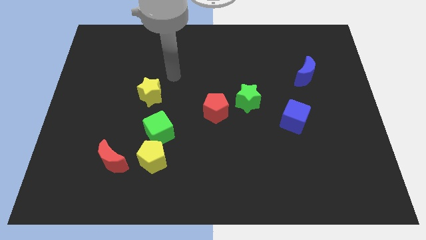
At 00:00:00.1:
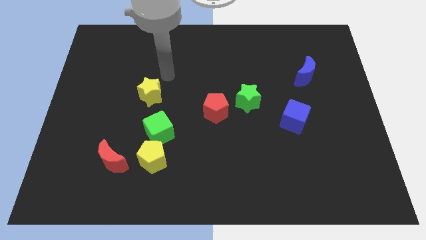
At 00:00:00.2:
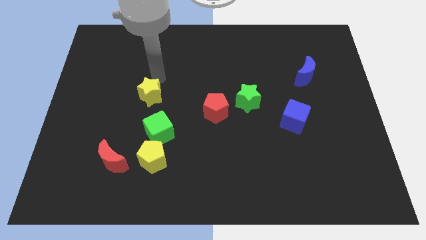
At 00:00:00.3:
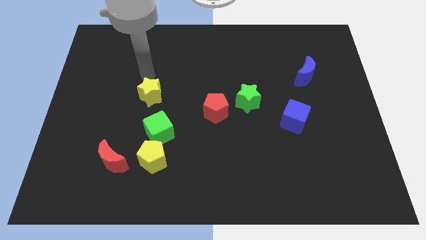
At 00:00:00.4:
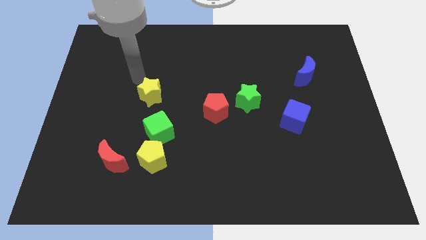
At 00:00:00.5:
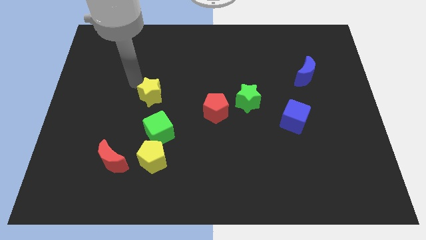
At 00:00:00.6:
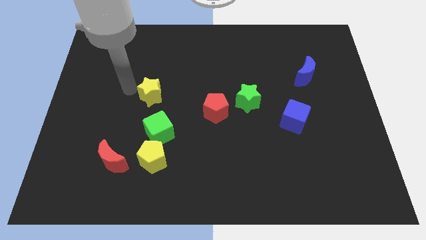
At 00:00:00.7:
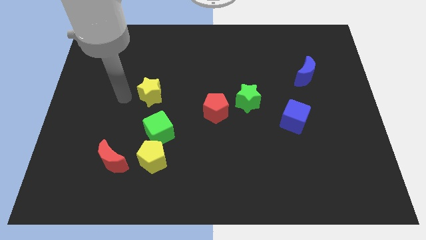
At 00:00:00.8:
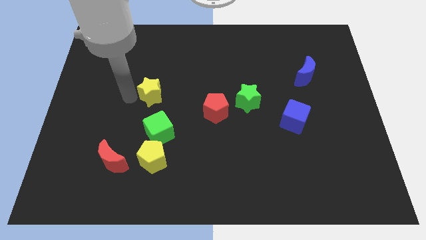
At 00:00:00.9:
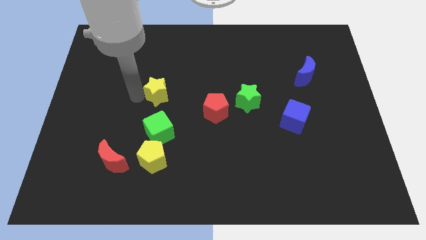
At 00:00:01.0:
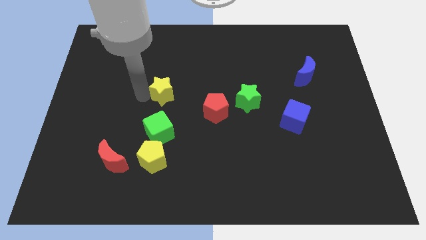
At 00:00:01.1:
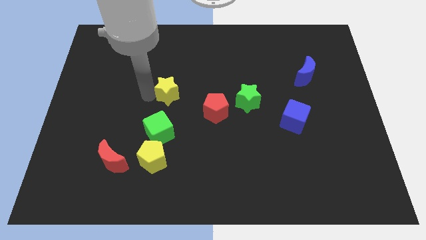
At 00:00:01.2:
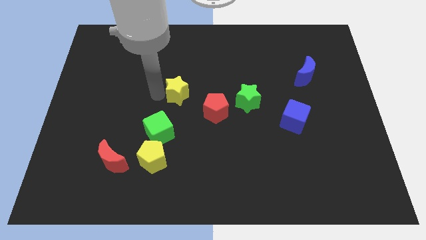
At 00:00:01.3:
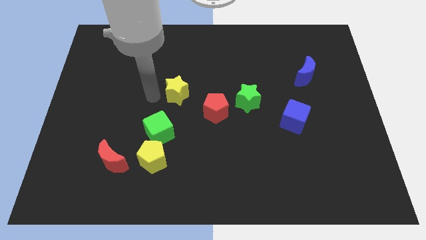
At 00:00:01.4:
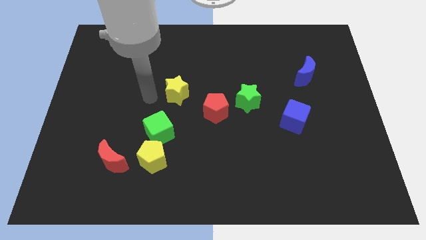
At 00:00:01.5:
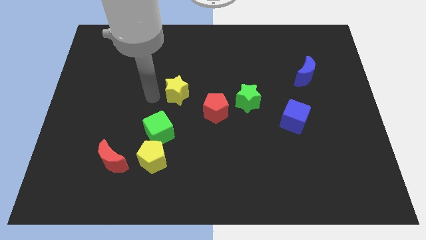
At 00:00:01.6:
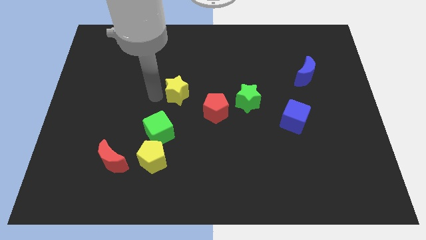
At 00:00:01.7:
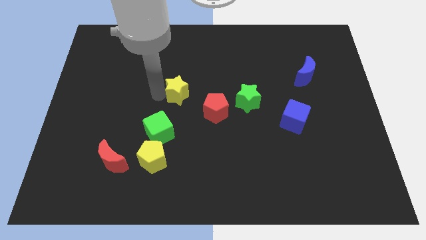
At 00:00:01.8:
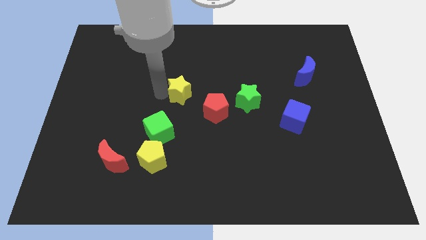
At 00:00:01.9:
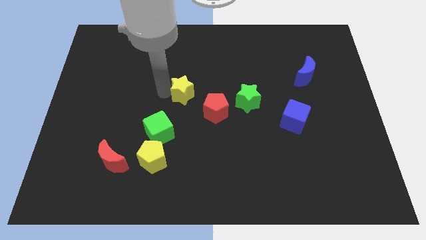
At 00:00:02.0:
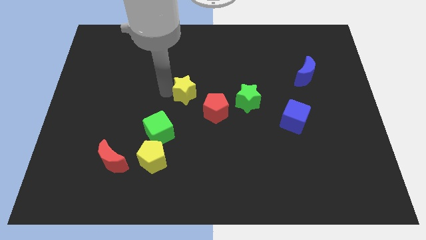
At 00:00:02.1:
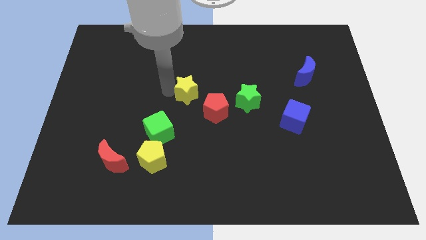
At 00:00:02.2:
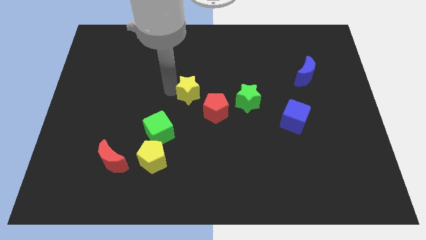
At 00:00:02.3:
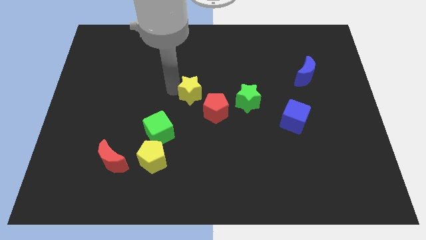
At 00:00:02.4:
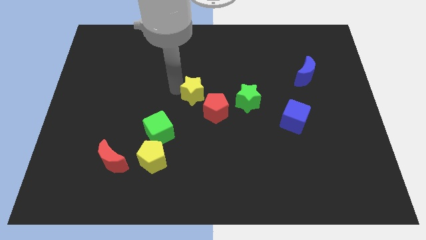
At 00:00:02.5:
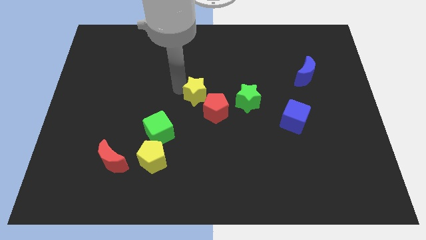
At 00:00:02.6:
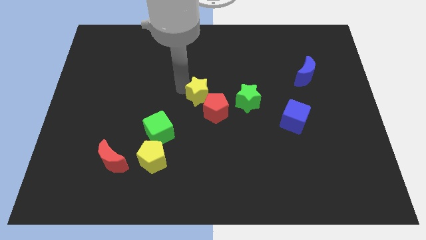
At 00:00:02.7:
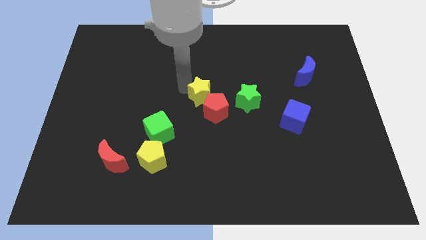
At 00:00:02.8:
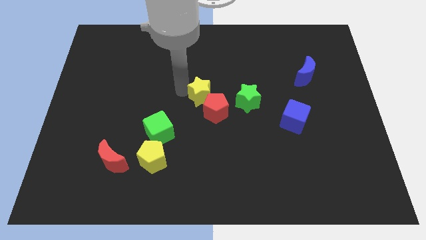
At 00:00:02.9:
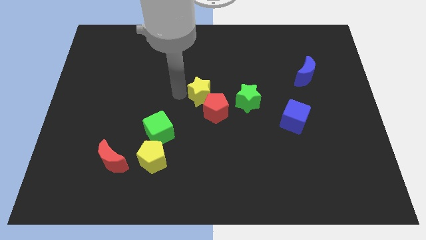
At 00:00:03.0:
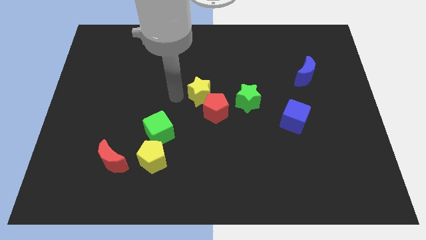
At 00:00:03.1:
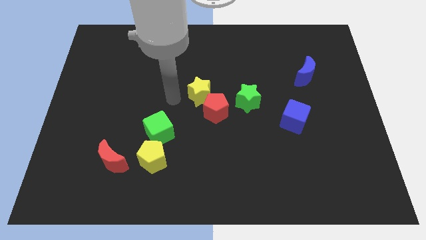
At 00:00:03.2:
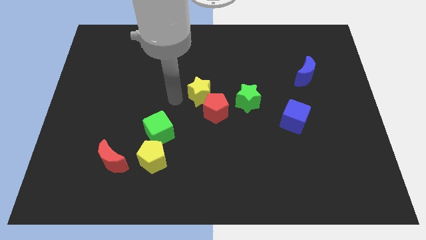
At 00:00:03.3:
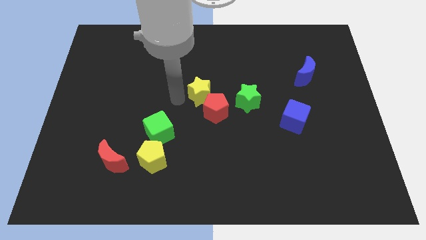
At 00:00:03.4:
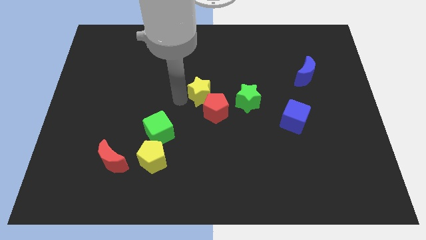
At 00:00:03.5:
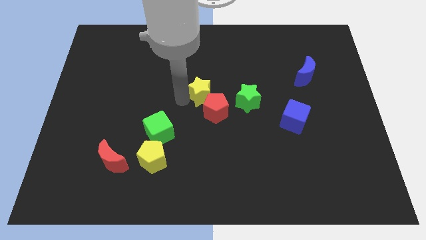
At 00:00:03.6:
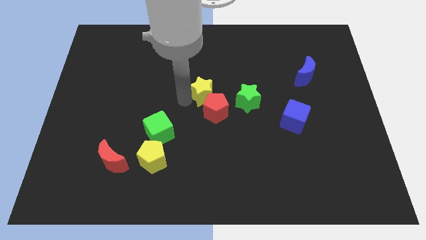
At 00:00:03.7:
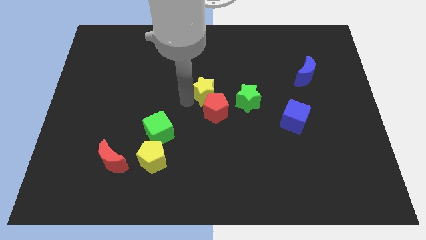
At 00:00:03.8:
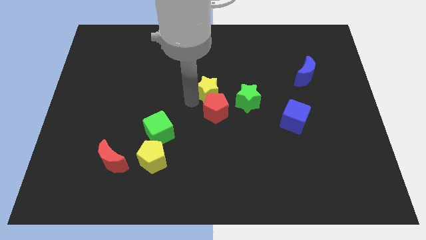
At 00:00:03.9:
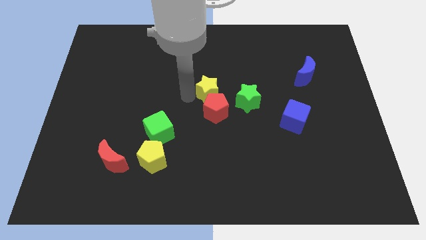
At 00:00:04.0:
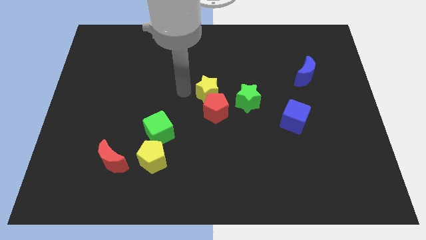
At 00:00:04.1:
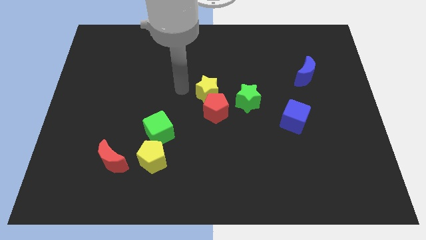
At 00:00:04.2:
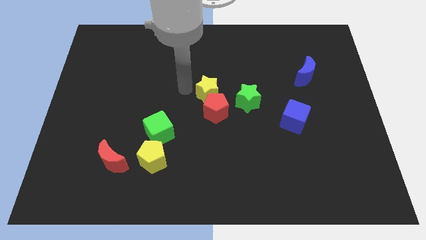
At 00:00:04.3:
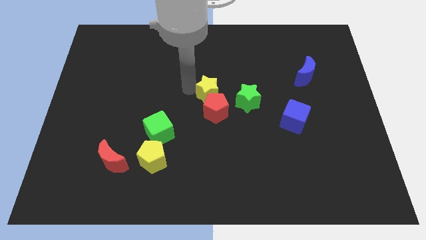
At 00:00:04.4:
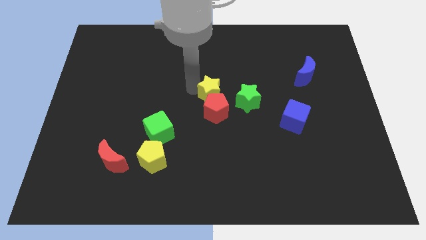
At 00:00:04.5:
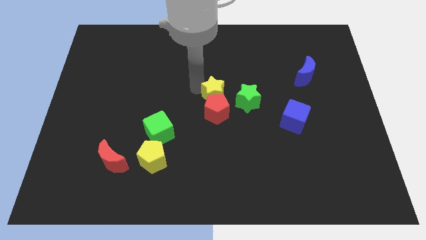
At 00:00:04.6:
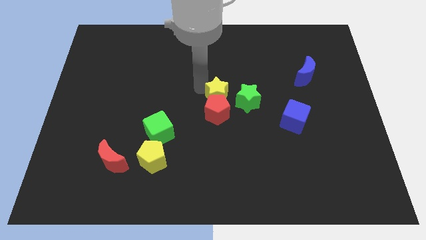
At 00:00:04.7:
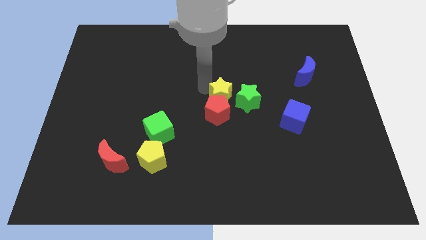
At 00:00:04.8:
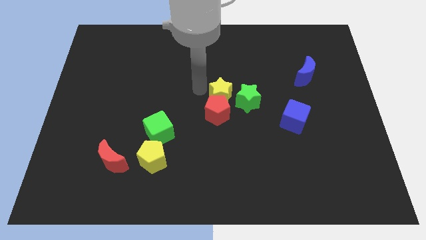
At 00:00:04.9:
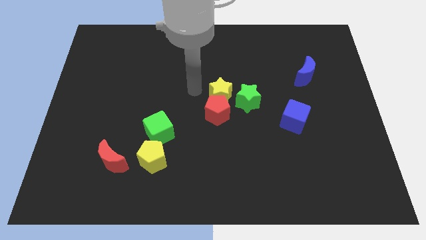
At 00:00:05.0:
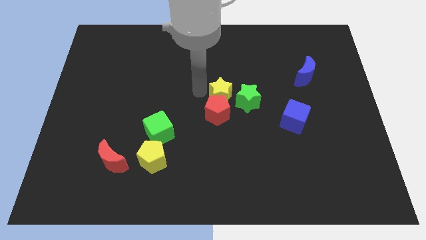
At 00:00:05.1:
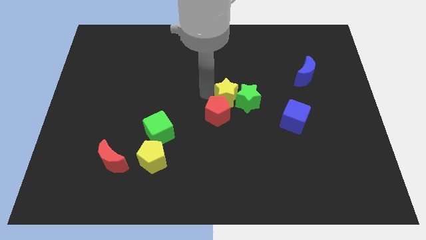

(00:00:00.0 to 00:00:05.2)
put the yellow star next to the green star

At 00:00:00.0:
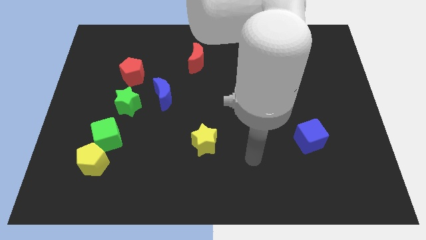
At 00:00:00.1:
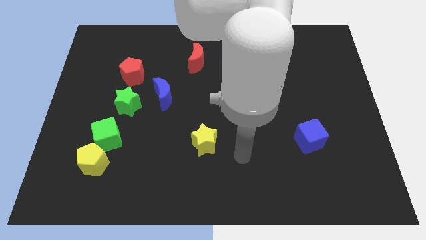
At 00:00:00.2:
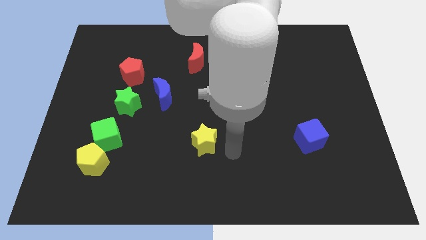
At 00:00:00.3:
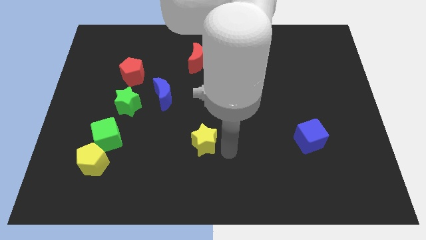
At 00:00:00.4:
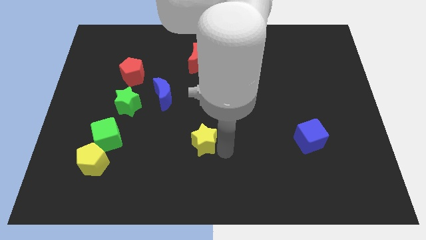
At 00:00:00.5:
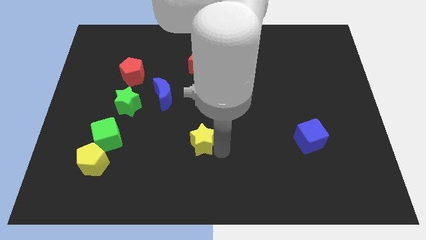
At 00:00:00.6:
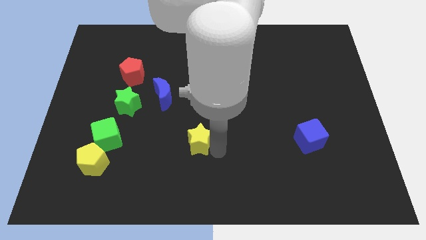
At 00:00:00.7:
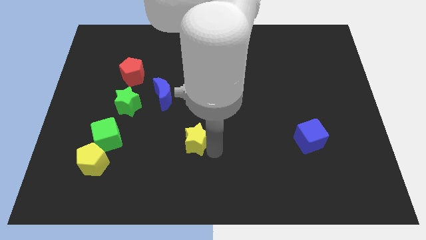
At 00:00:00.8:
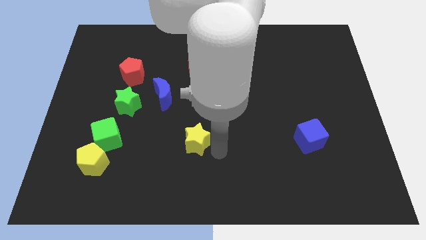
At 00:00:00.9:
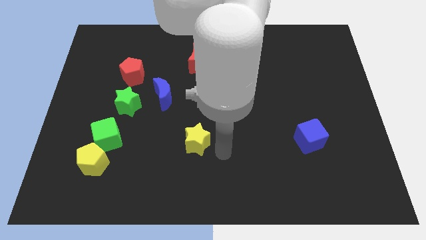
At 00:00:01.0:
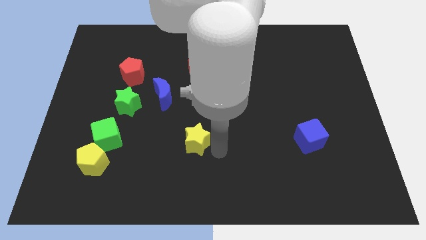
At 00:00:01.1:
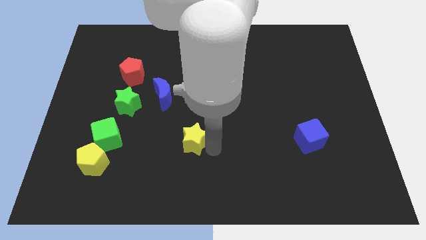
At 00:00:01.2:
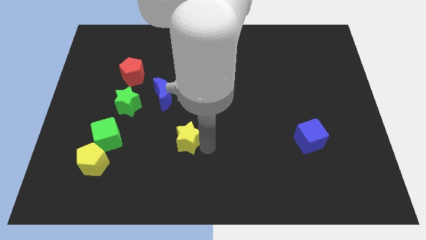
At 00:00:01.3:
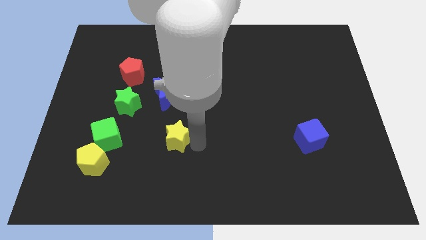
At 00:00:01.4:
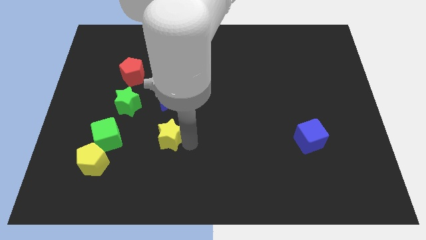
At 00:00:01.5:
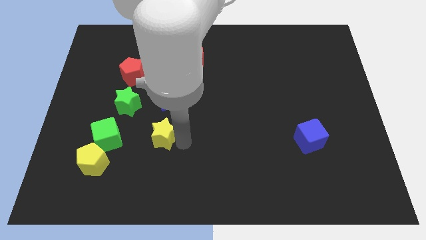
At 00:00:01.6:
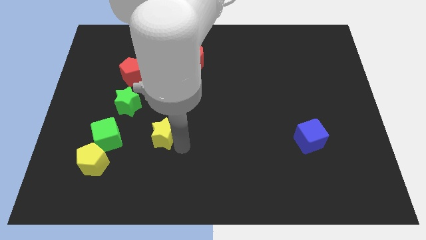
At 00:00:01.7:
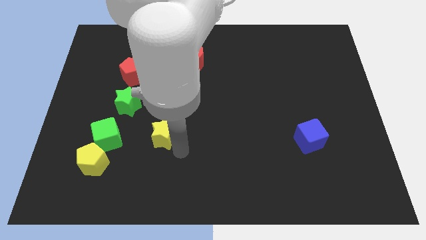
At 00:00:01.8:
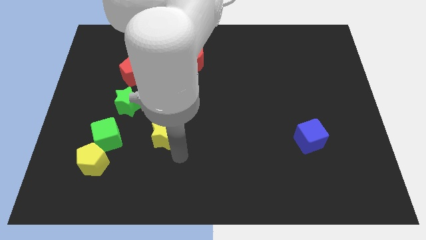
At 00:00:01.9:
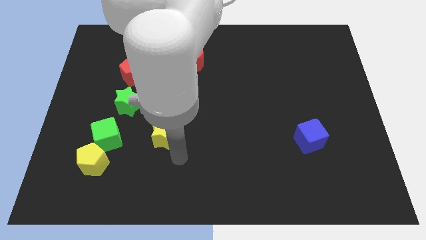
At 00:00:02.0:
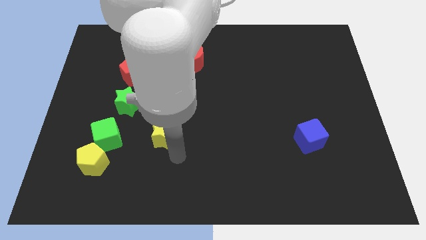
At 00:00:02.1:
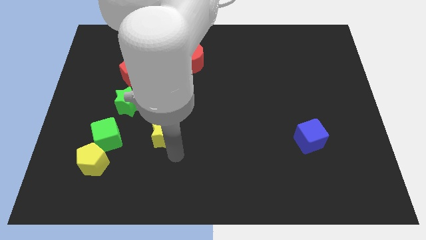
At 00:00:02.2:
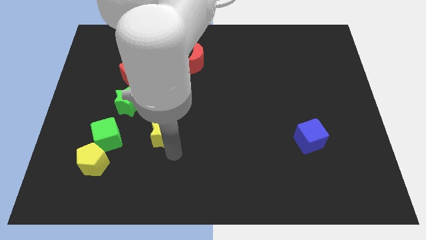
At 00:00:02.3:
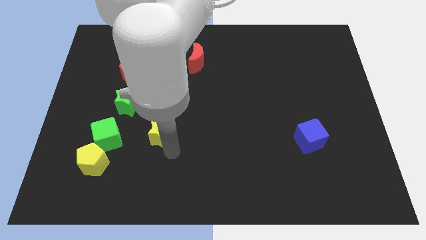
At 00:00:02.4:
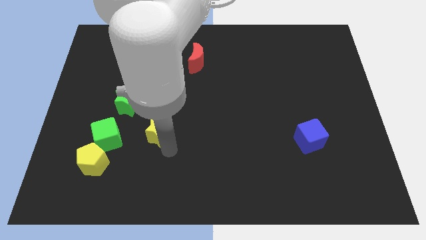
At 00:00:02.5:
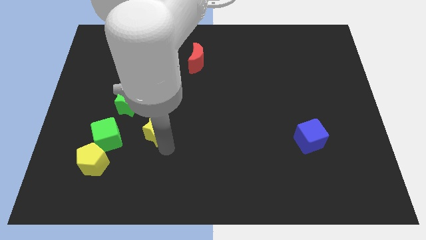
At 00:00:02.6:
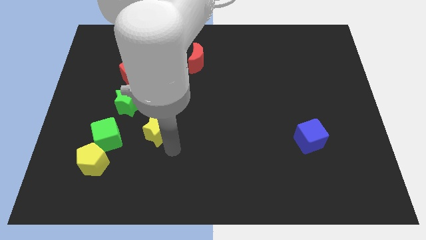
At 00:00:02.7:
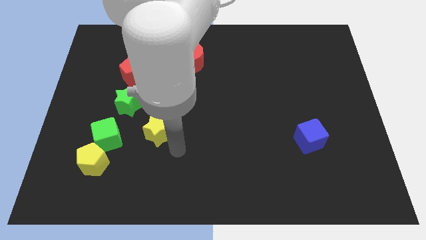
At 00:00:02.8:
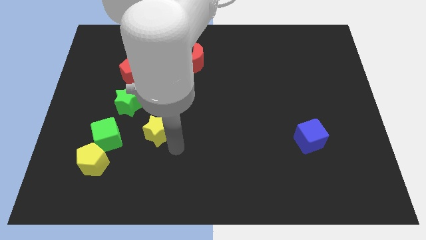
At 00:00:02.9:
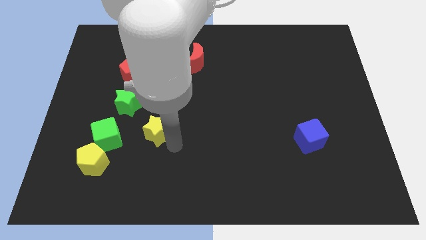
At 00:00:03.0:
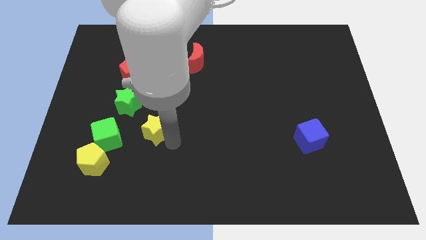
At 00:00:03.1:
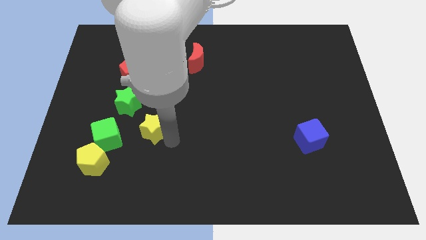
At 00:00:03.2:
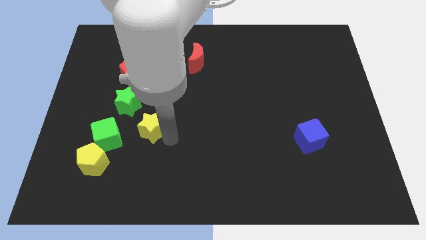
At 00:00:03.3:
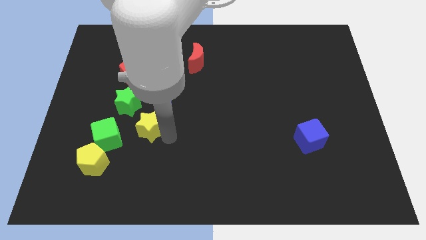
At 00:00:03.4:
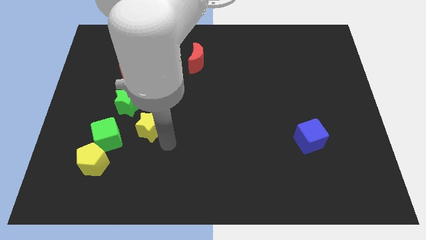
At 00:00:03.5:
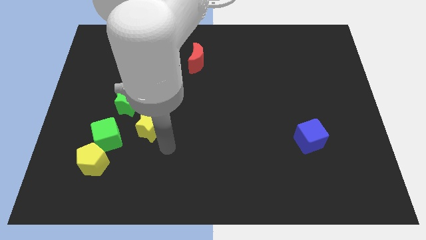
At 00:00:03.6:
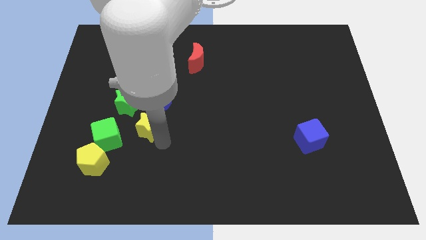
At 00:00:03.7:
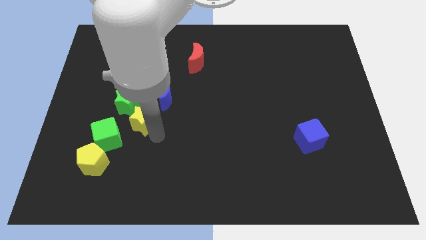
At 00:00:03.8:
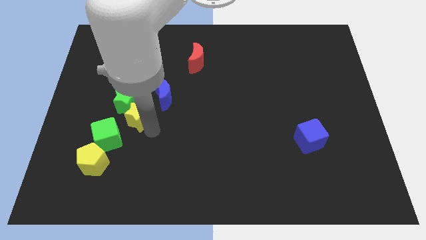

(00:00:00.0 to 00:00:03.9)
move the yellow star close to the green star
